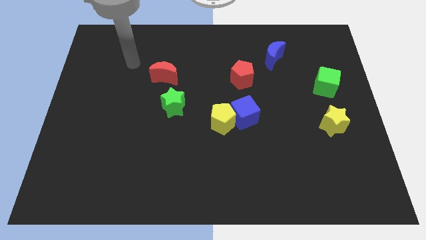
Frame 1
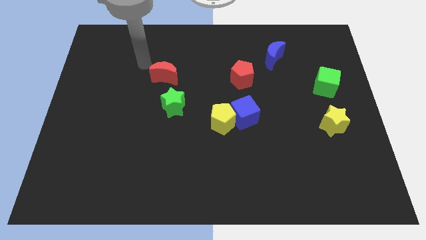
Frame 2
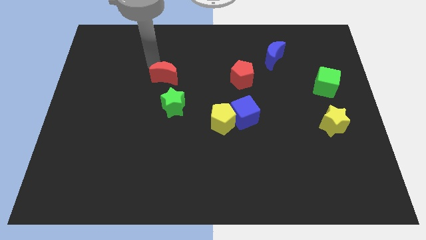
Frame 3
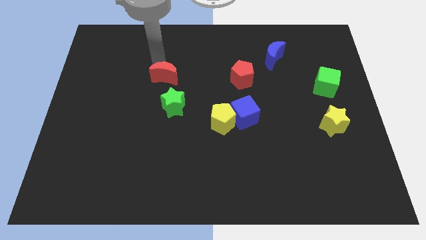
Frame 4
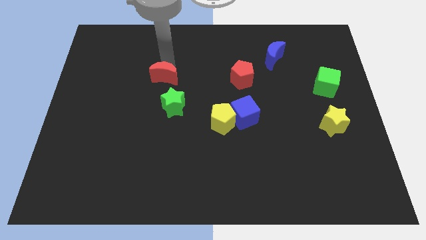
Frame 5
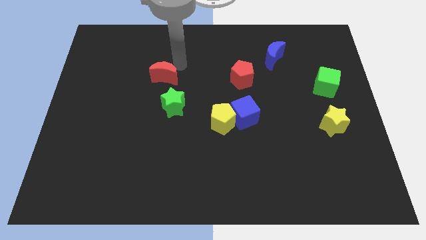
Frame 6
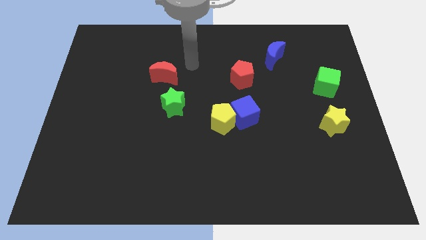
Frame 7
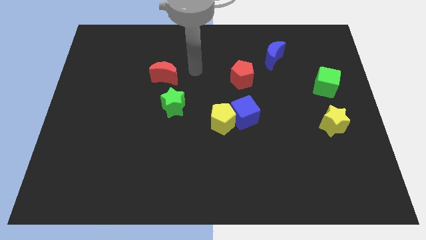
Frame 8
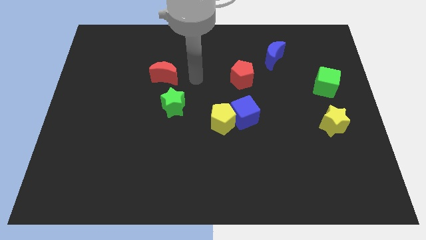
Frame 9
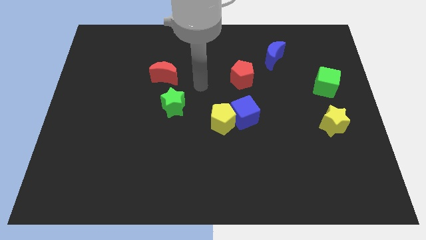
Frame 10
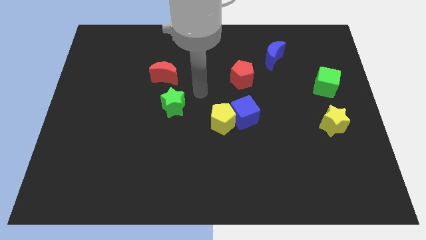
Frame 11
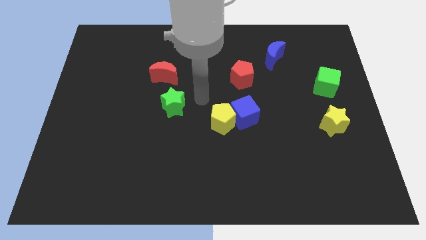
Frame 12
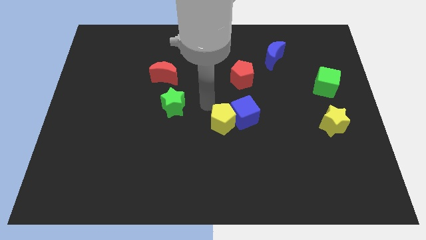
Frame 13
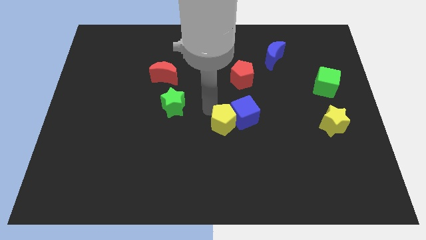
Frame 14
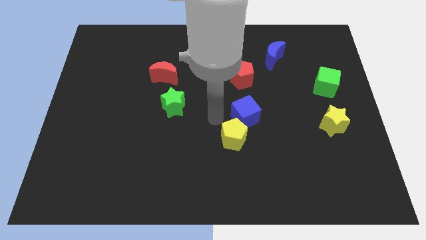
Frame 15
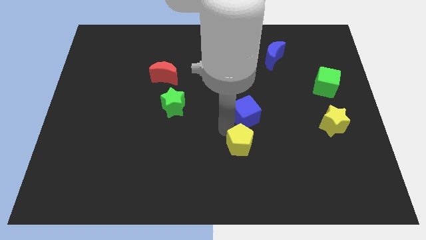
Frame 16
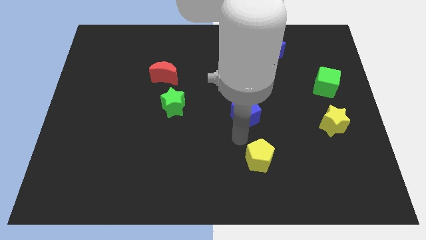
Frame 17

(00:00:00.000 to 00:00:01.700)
move the blue cube away from the yellow pentagon

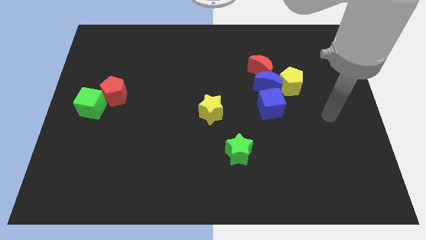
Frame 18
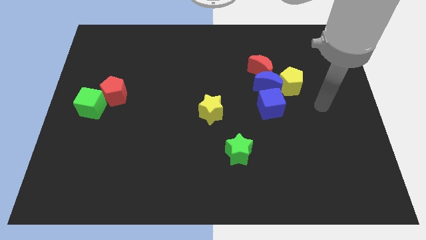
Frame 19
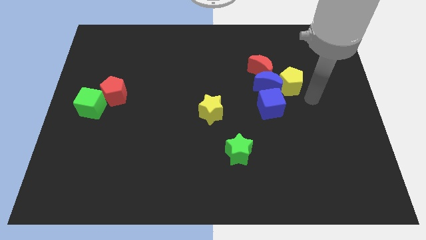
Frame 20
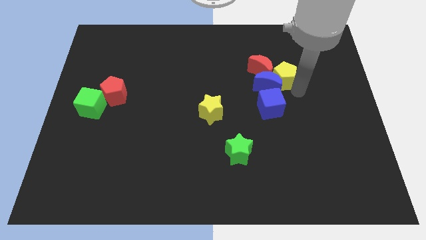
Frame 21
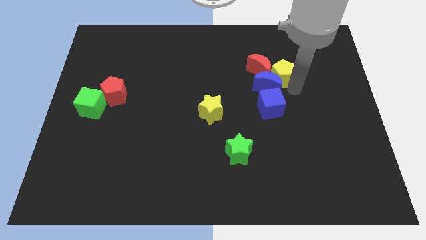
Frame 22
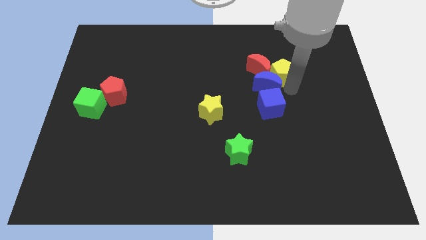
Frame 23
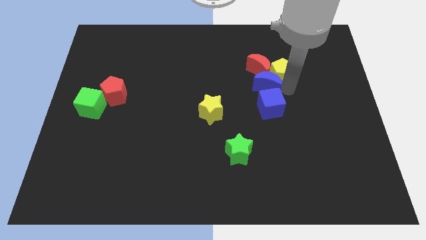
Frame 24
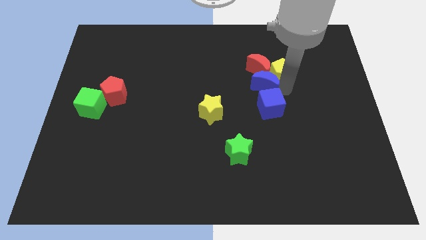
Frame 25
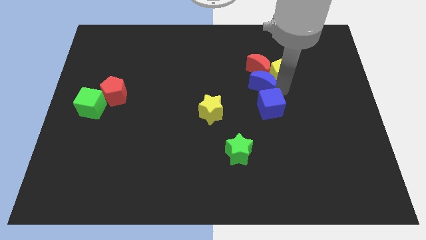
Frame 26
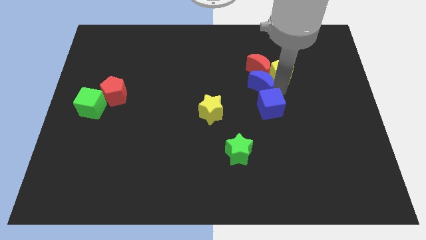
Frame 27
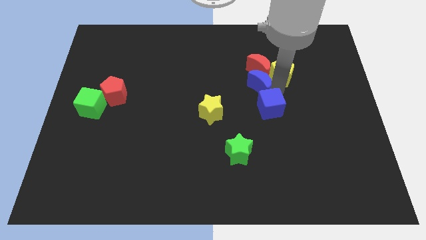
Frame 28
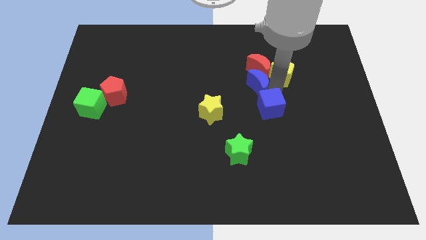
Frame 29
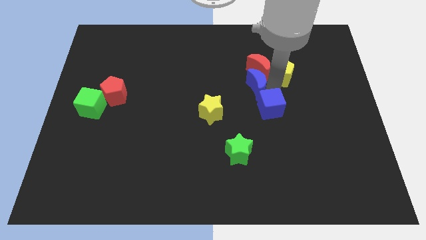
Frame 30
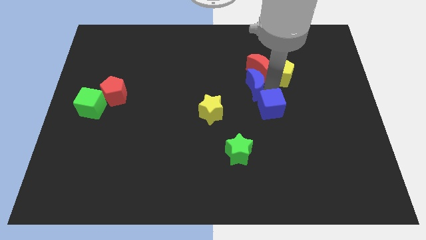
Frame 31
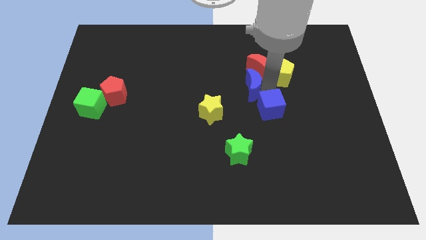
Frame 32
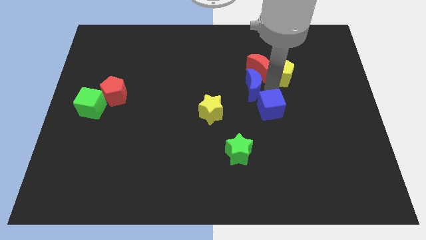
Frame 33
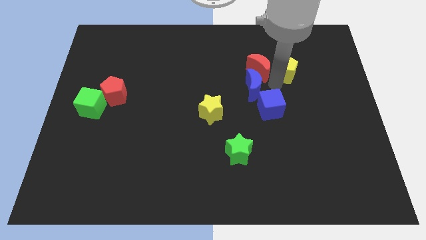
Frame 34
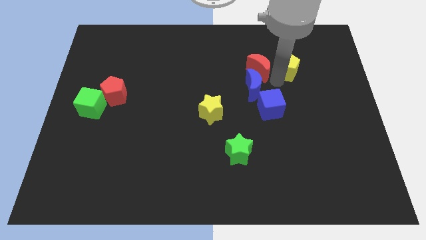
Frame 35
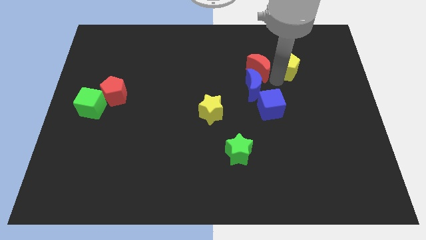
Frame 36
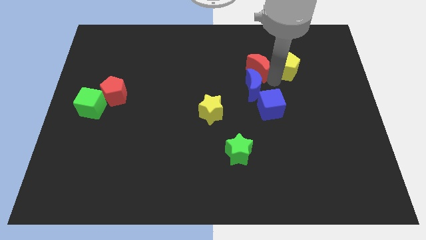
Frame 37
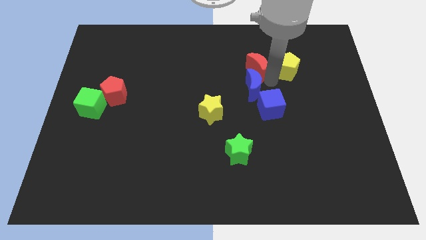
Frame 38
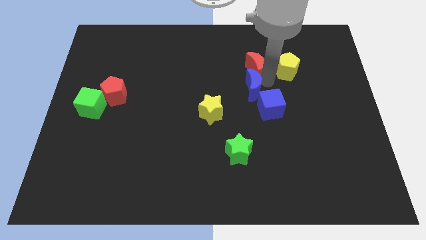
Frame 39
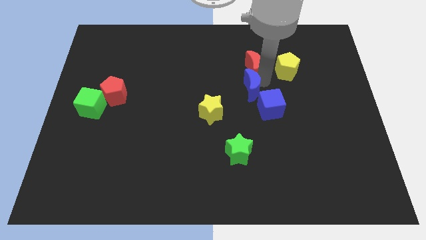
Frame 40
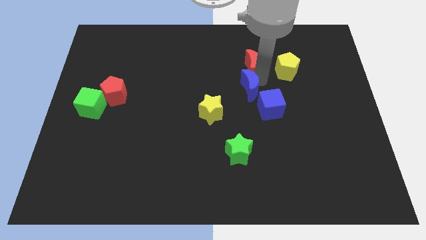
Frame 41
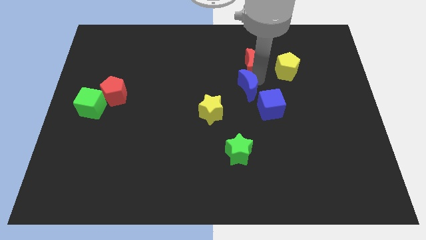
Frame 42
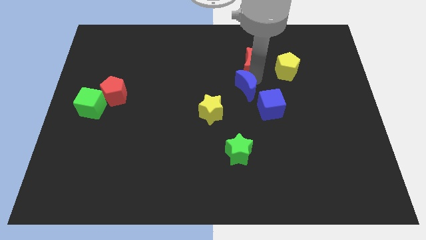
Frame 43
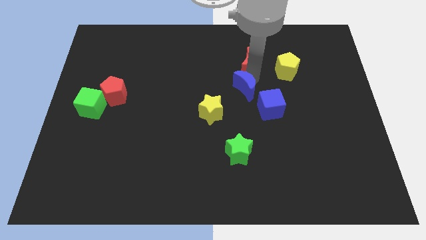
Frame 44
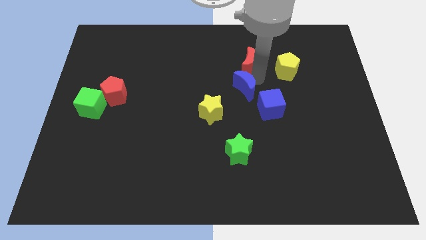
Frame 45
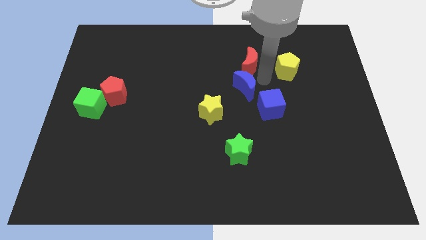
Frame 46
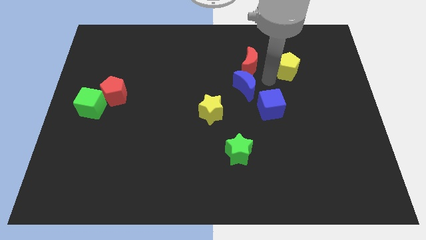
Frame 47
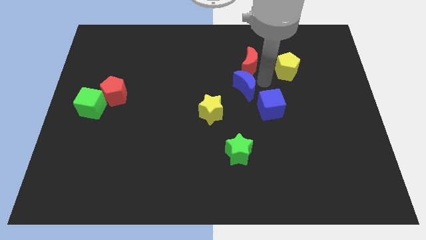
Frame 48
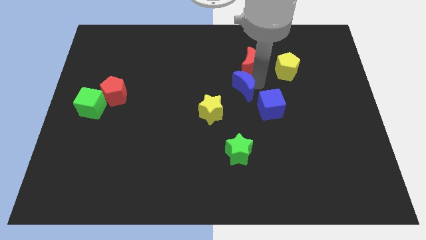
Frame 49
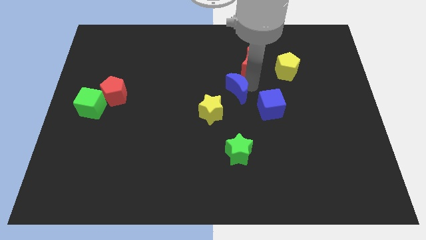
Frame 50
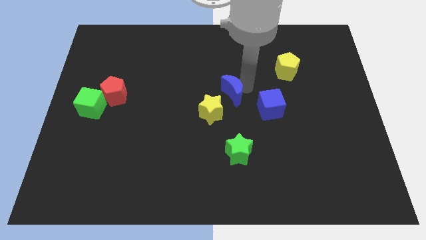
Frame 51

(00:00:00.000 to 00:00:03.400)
move the blue moon away from the group

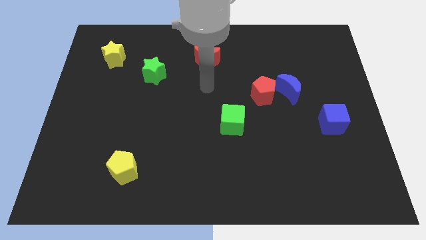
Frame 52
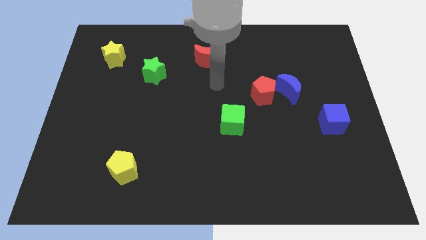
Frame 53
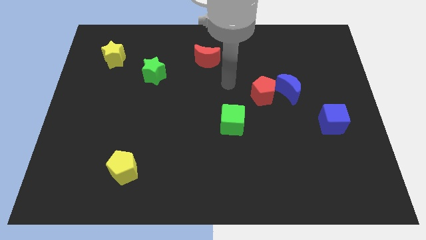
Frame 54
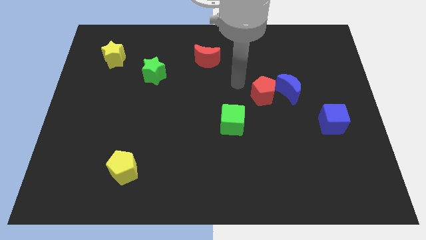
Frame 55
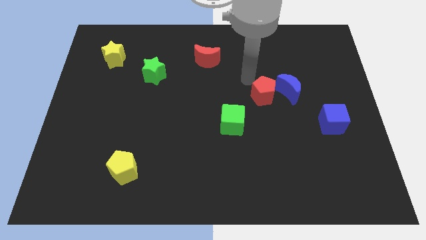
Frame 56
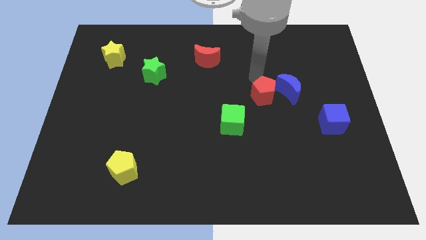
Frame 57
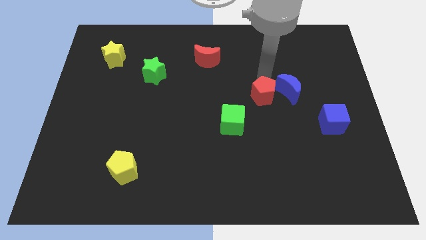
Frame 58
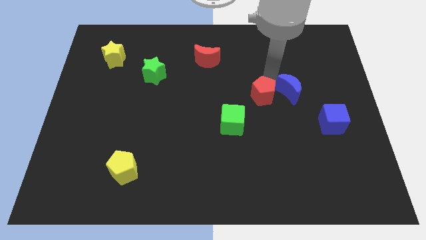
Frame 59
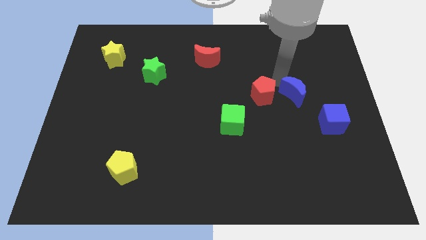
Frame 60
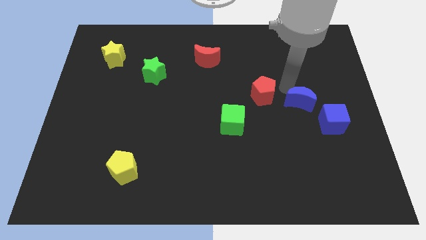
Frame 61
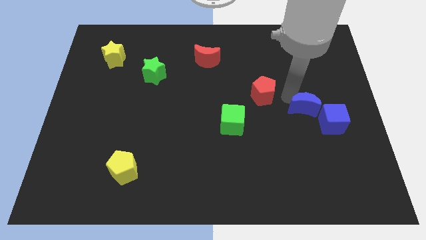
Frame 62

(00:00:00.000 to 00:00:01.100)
move the red pentagon away from the blue moon

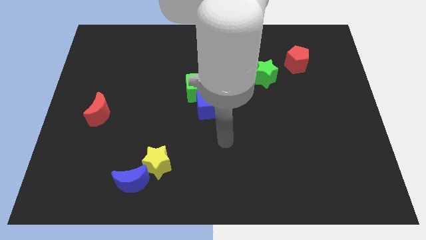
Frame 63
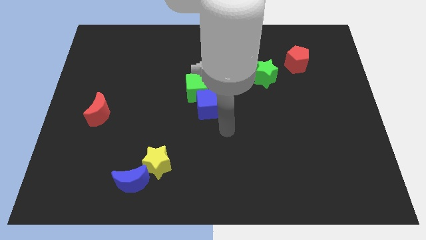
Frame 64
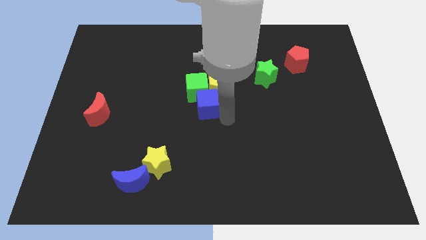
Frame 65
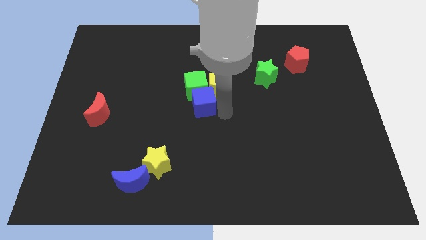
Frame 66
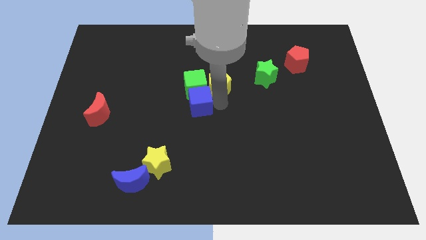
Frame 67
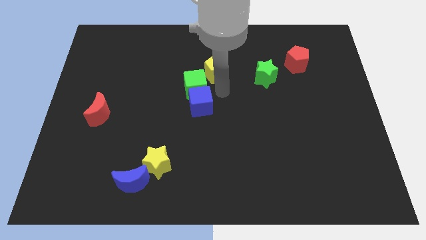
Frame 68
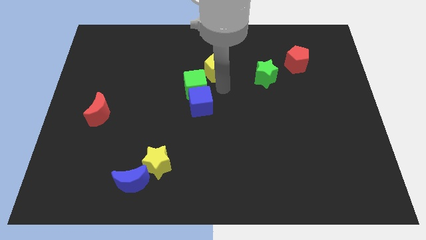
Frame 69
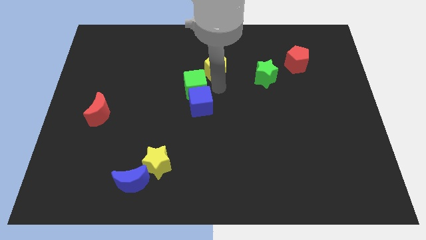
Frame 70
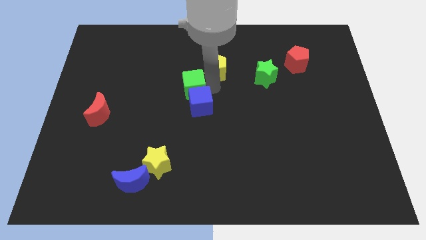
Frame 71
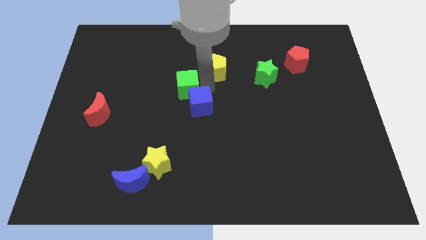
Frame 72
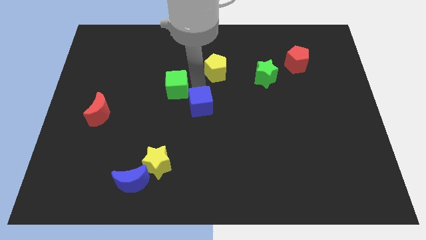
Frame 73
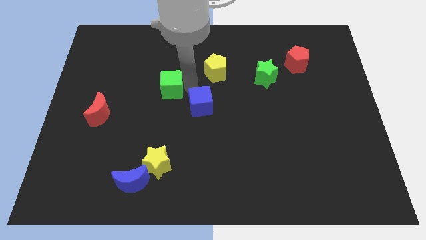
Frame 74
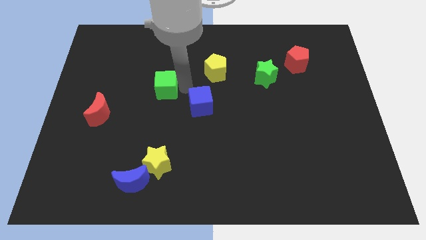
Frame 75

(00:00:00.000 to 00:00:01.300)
pull the green cube apart from the yellow pentagon and blue cube

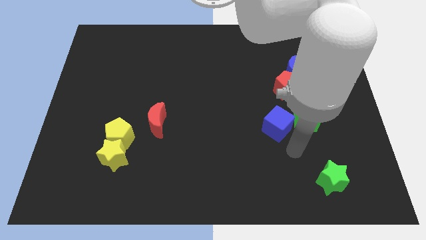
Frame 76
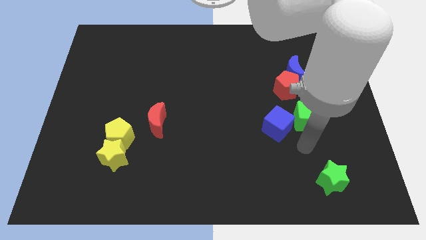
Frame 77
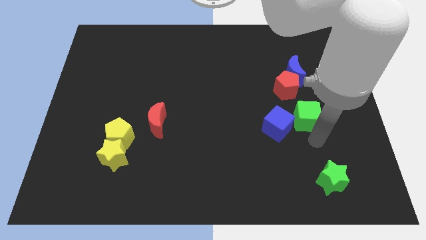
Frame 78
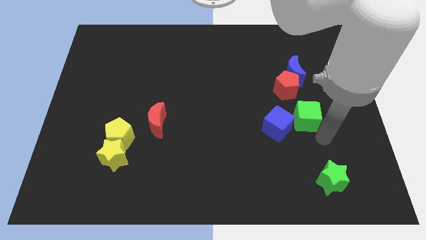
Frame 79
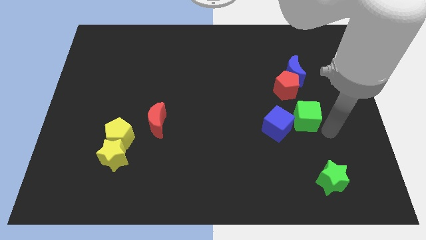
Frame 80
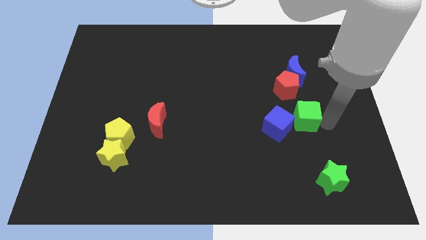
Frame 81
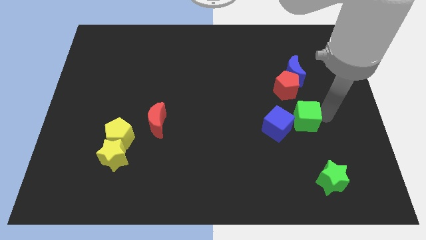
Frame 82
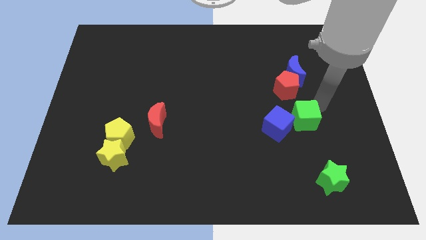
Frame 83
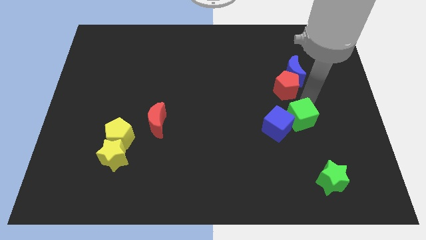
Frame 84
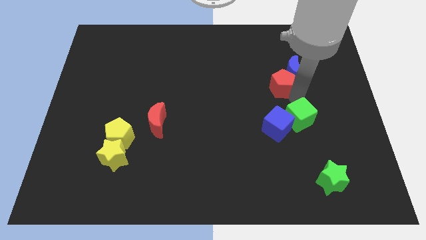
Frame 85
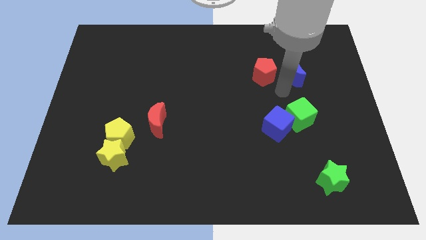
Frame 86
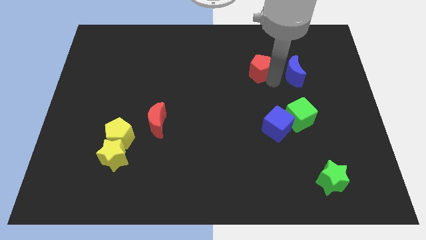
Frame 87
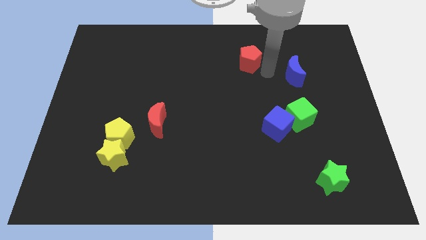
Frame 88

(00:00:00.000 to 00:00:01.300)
pull the blue moon apart from the red pentagon

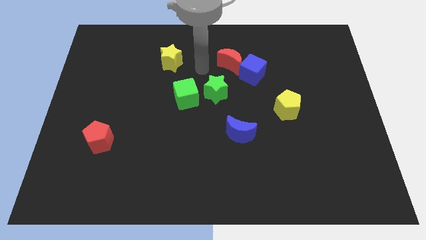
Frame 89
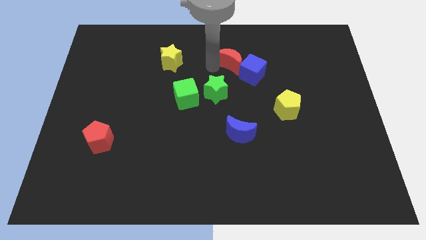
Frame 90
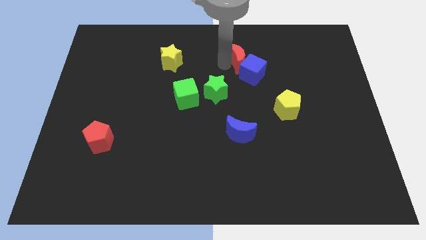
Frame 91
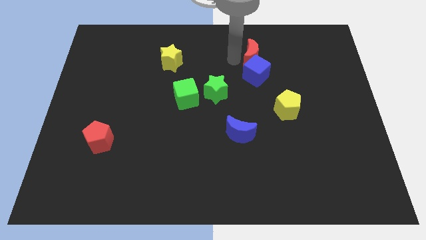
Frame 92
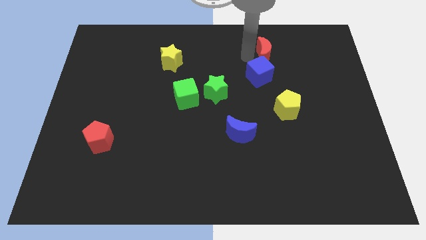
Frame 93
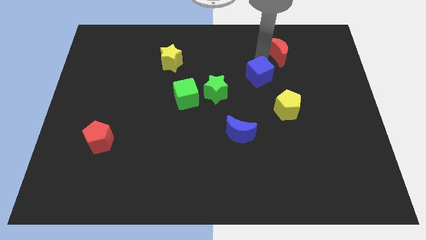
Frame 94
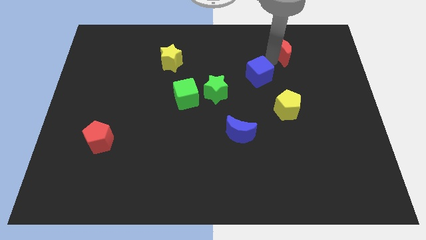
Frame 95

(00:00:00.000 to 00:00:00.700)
move the blue cube away from the red moon
